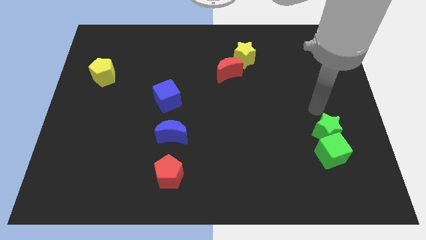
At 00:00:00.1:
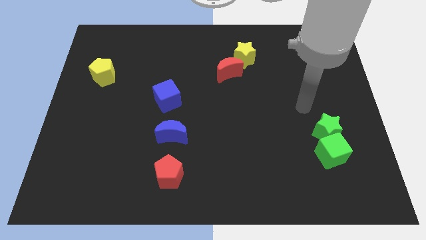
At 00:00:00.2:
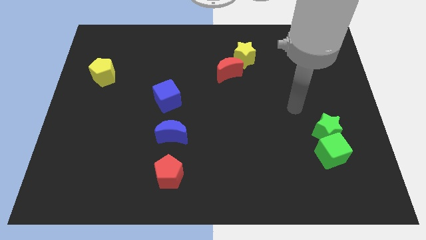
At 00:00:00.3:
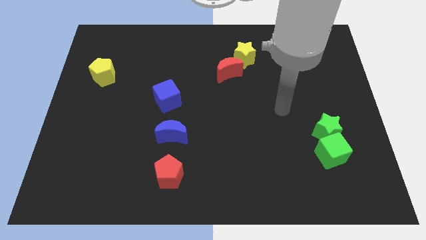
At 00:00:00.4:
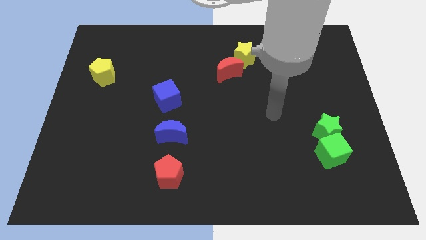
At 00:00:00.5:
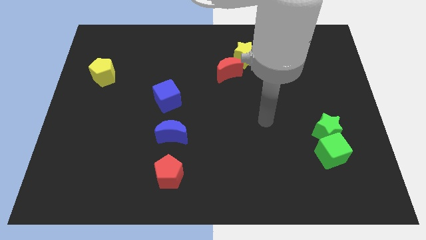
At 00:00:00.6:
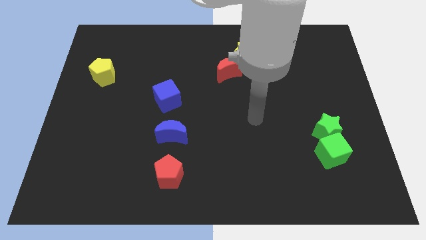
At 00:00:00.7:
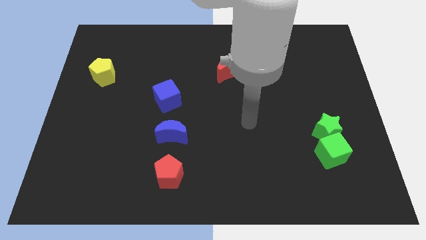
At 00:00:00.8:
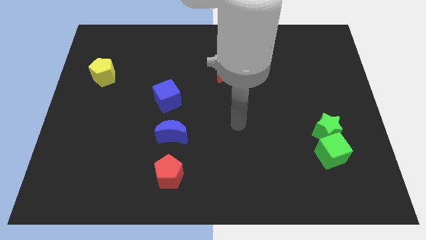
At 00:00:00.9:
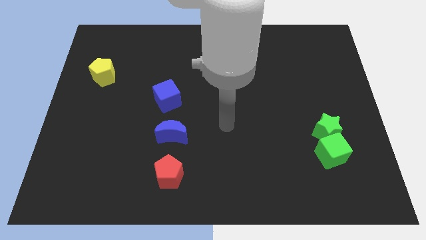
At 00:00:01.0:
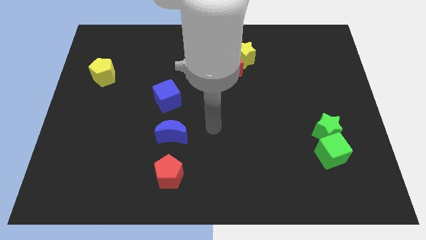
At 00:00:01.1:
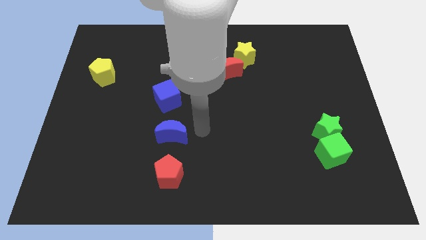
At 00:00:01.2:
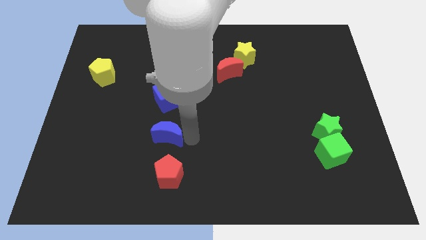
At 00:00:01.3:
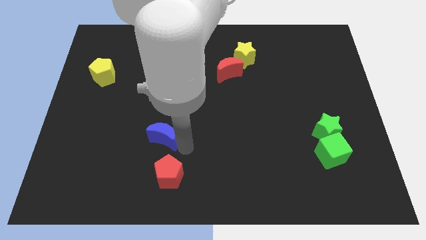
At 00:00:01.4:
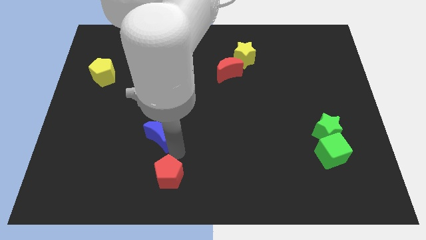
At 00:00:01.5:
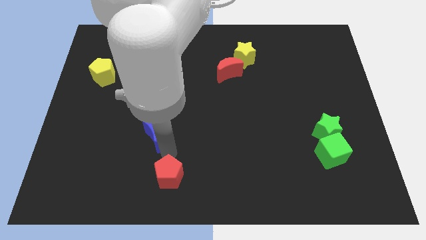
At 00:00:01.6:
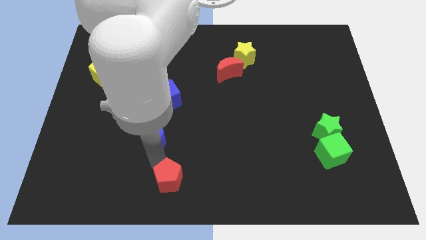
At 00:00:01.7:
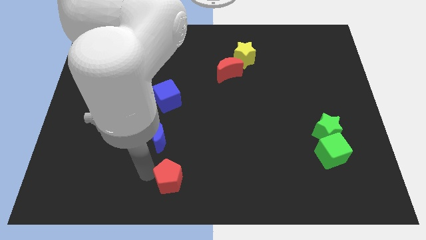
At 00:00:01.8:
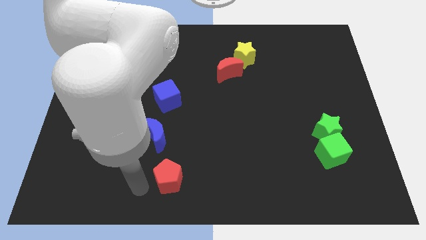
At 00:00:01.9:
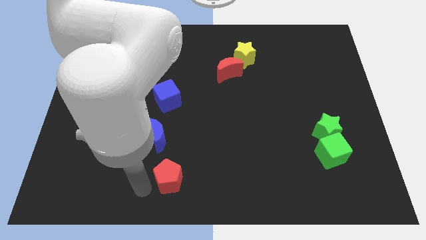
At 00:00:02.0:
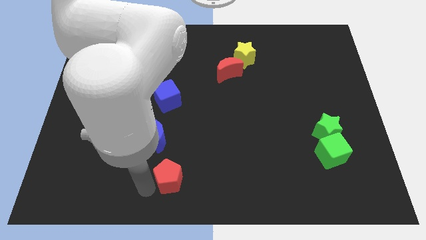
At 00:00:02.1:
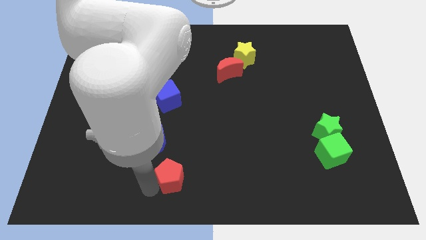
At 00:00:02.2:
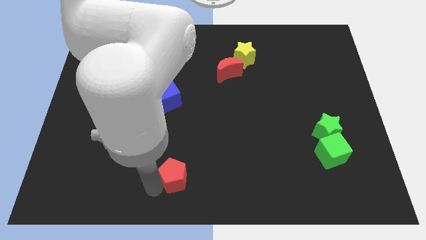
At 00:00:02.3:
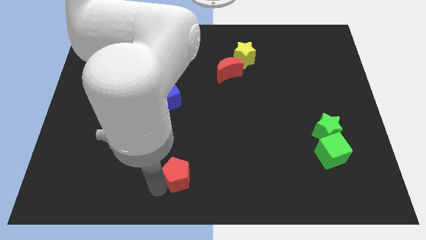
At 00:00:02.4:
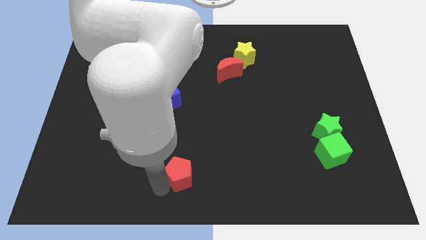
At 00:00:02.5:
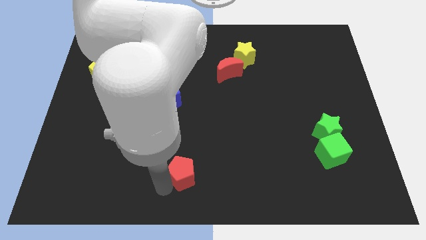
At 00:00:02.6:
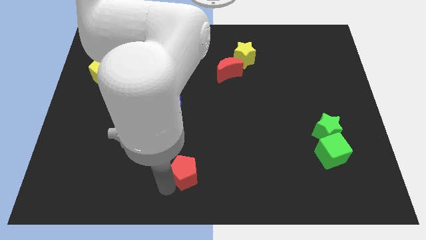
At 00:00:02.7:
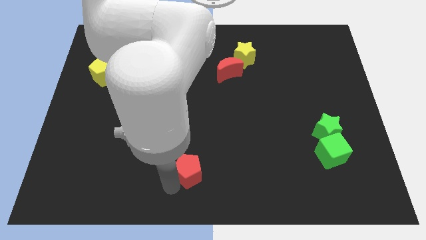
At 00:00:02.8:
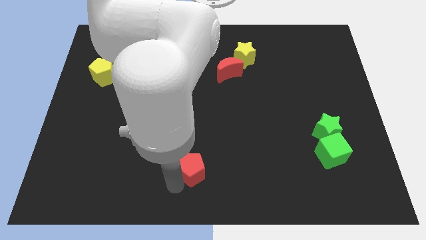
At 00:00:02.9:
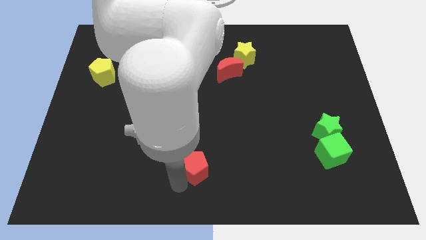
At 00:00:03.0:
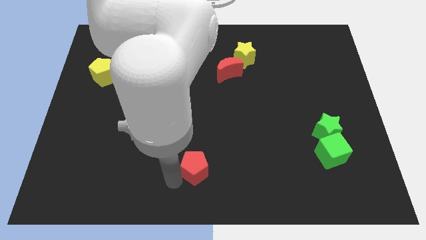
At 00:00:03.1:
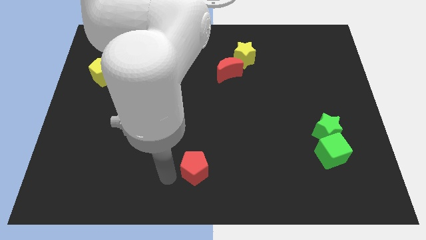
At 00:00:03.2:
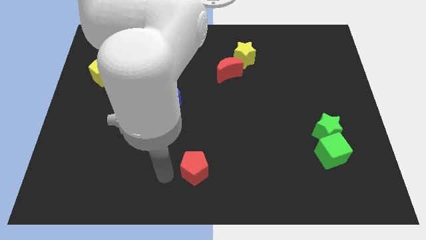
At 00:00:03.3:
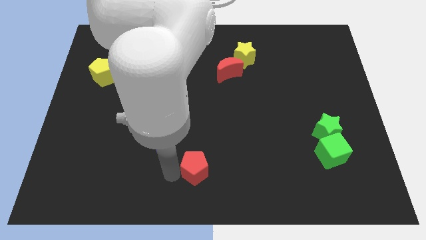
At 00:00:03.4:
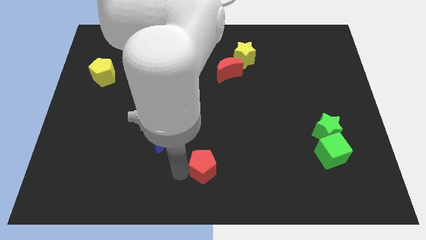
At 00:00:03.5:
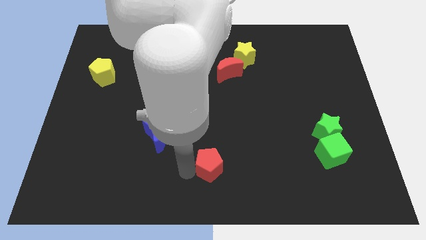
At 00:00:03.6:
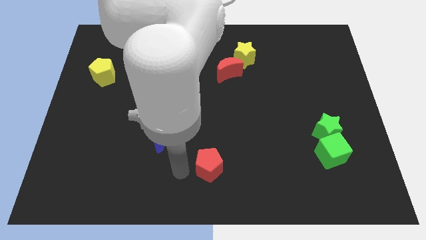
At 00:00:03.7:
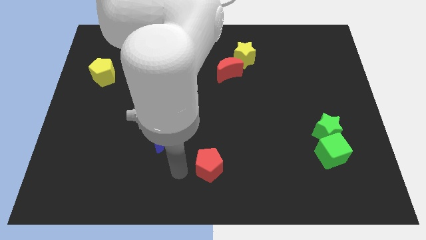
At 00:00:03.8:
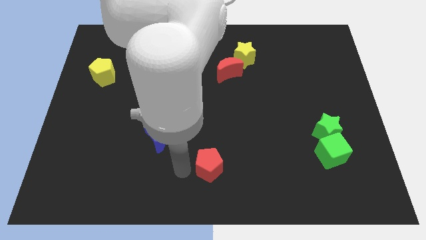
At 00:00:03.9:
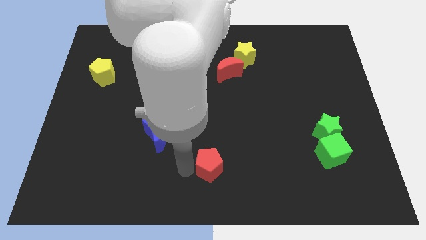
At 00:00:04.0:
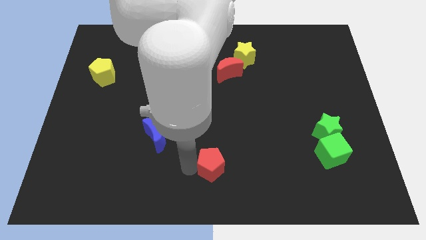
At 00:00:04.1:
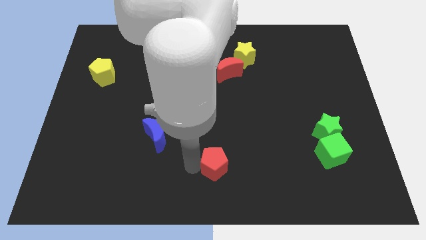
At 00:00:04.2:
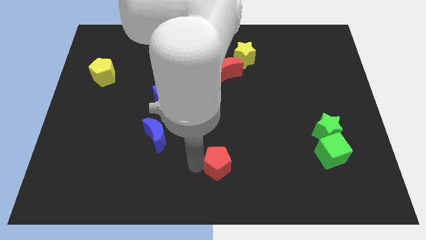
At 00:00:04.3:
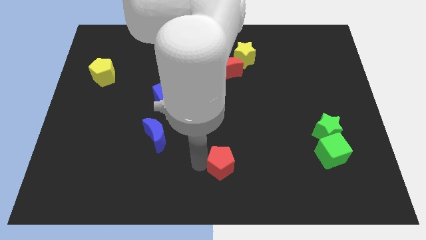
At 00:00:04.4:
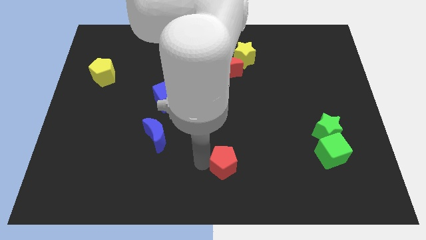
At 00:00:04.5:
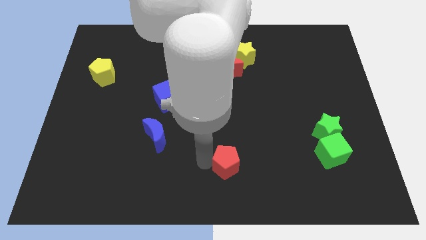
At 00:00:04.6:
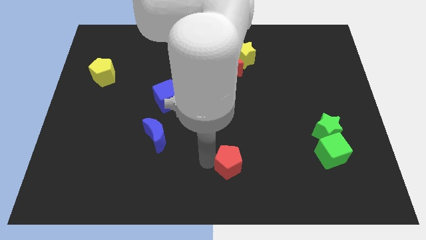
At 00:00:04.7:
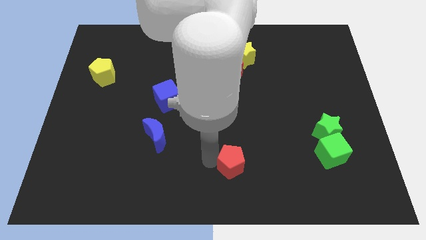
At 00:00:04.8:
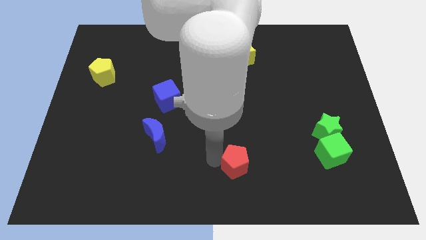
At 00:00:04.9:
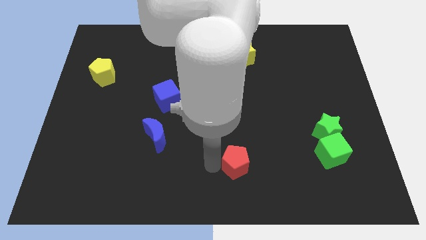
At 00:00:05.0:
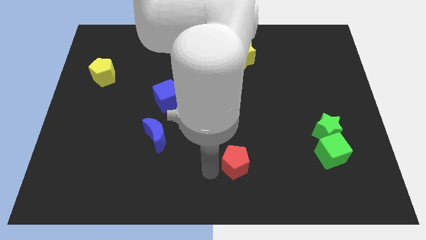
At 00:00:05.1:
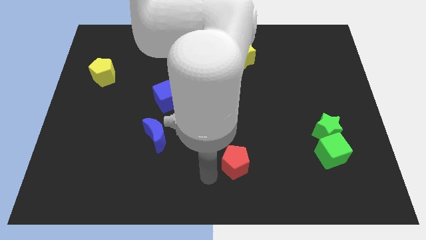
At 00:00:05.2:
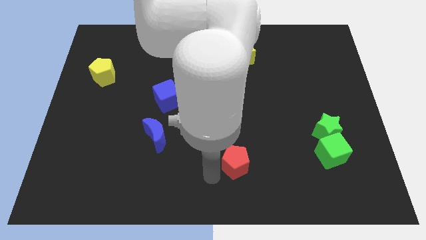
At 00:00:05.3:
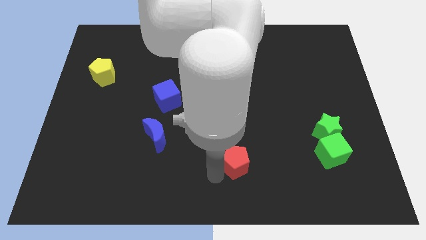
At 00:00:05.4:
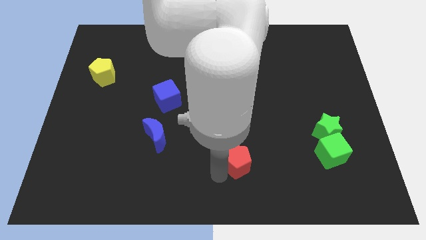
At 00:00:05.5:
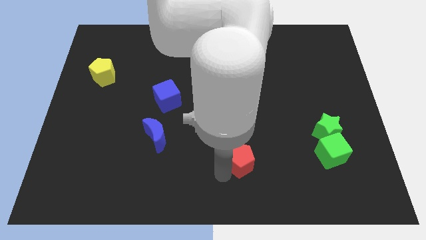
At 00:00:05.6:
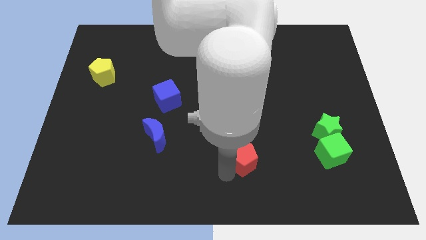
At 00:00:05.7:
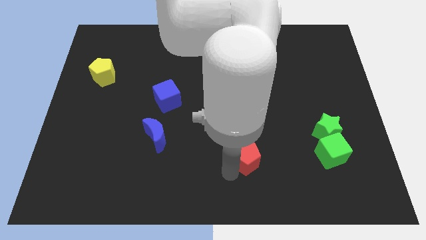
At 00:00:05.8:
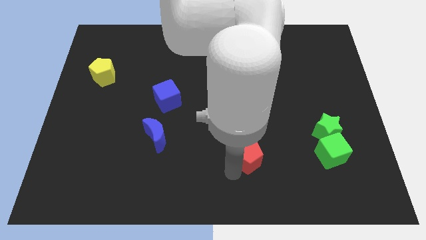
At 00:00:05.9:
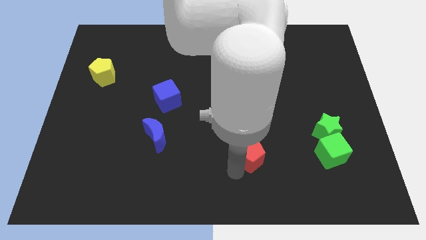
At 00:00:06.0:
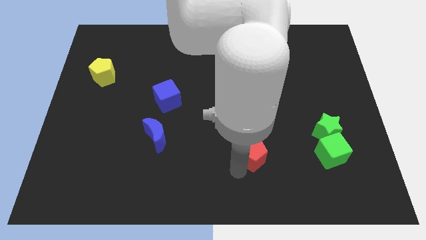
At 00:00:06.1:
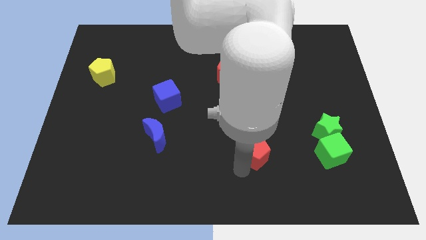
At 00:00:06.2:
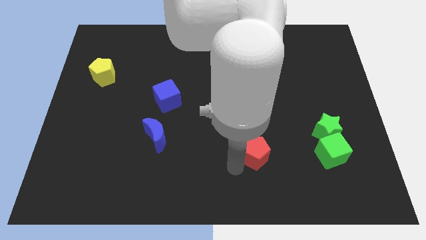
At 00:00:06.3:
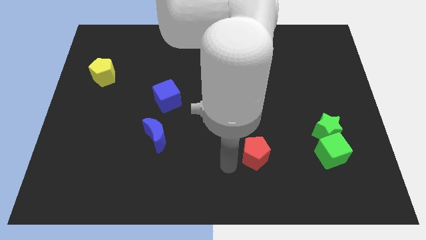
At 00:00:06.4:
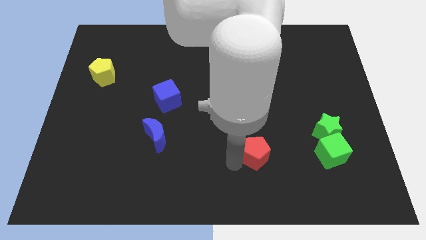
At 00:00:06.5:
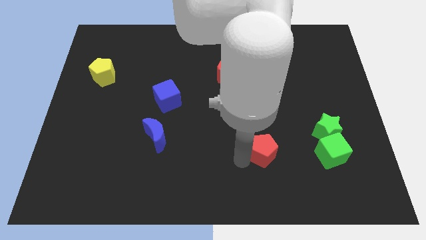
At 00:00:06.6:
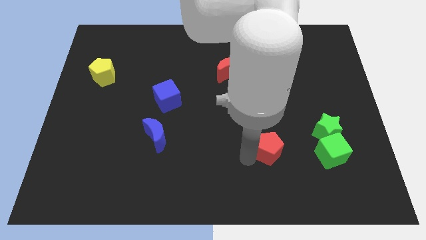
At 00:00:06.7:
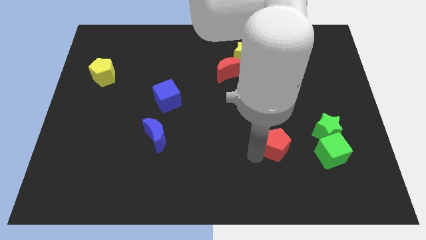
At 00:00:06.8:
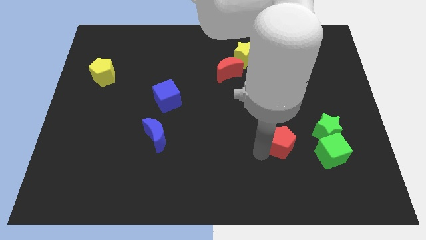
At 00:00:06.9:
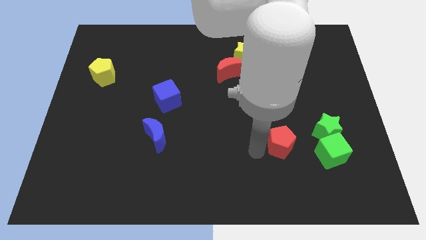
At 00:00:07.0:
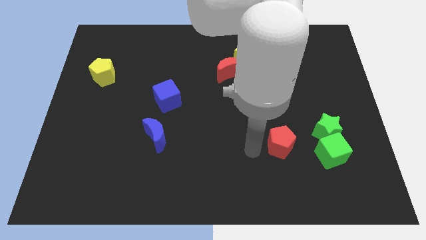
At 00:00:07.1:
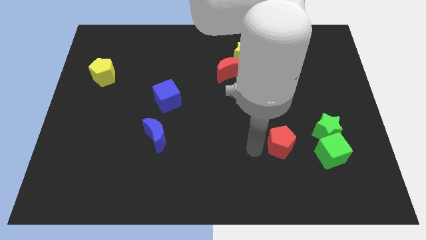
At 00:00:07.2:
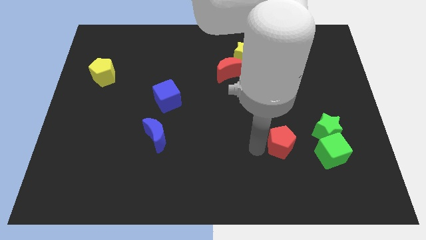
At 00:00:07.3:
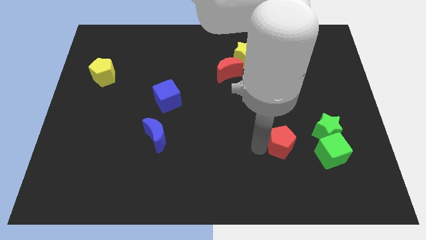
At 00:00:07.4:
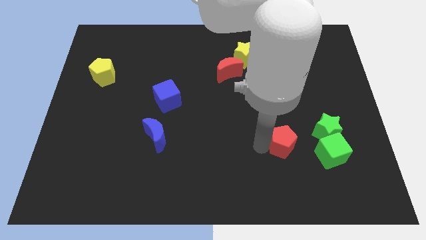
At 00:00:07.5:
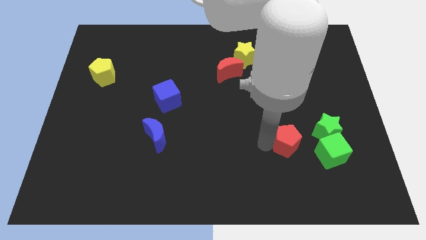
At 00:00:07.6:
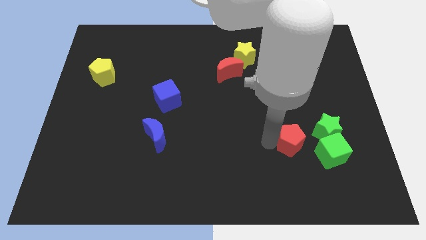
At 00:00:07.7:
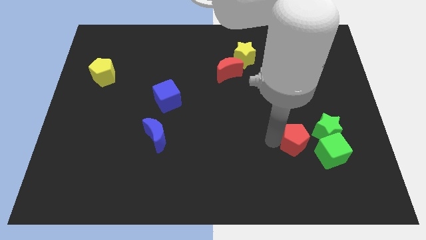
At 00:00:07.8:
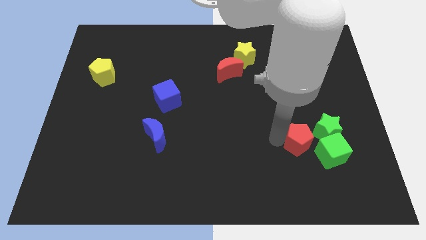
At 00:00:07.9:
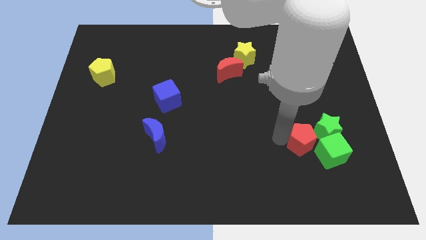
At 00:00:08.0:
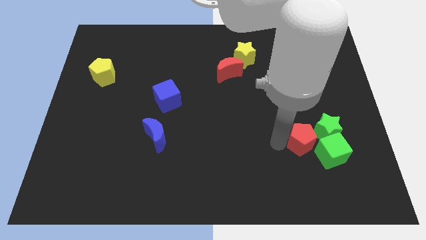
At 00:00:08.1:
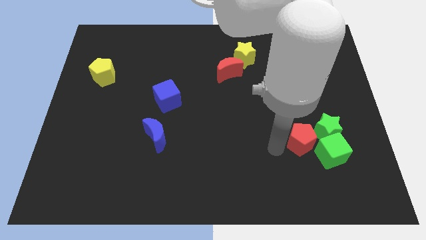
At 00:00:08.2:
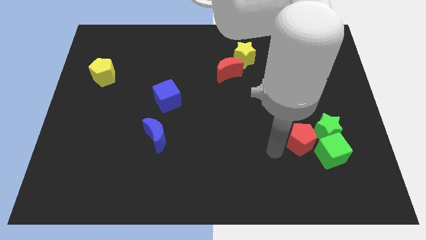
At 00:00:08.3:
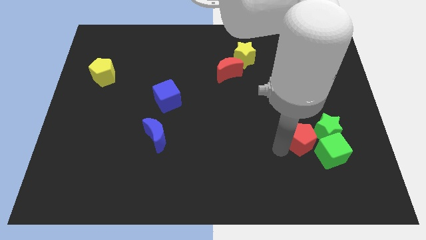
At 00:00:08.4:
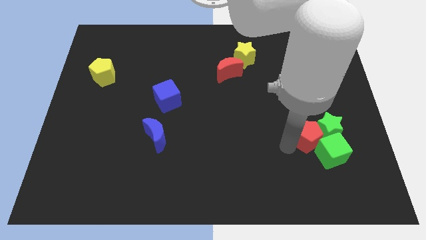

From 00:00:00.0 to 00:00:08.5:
slide the red pentagon close to the green star
